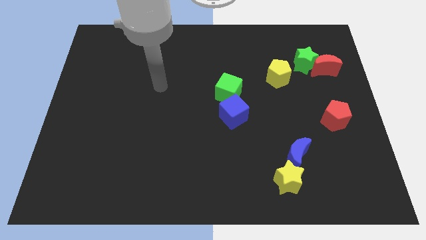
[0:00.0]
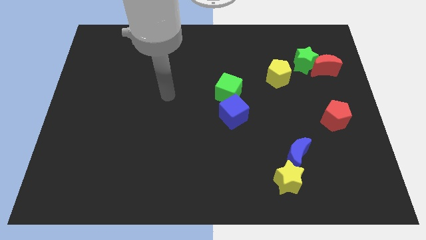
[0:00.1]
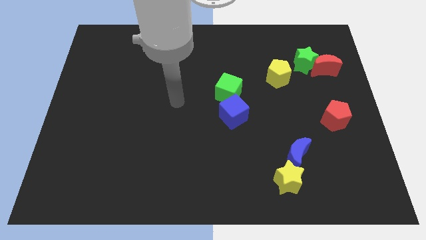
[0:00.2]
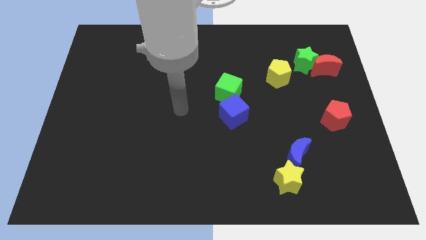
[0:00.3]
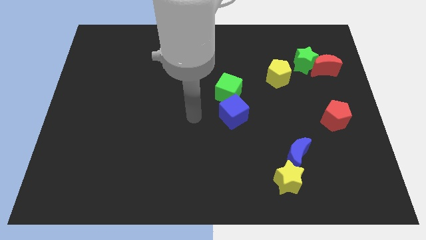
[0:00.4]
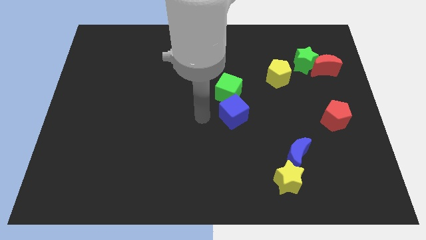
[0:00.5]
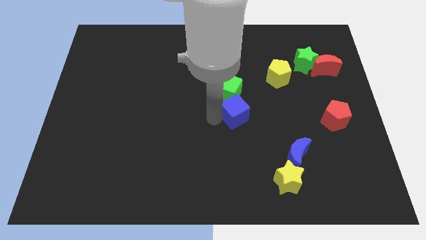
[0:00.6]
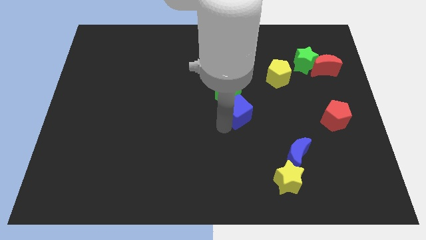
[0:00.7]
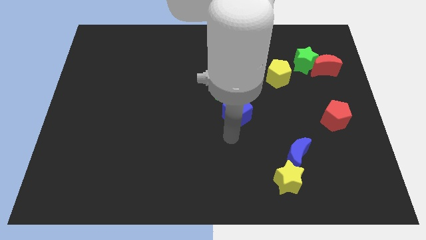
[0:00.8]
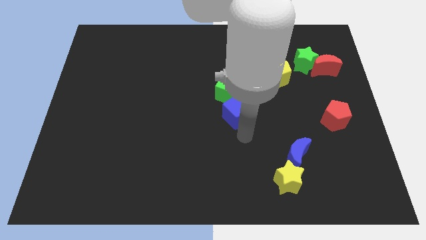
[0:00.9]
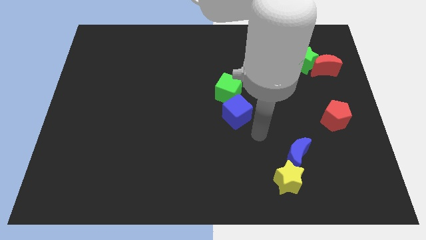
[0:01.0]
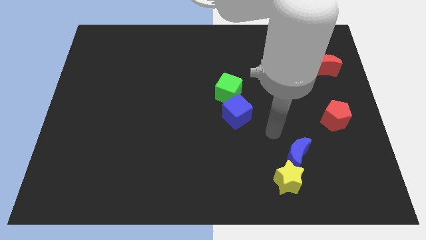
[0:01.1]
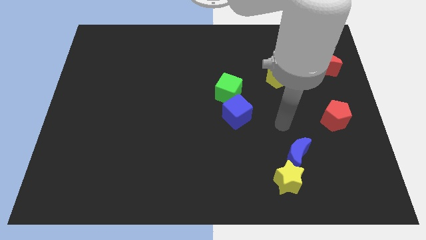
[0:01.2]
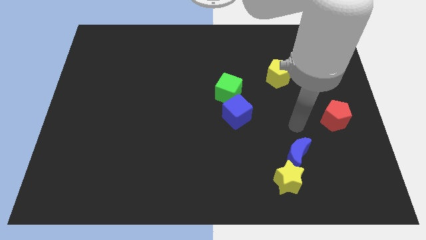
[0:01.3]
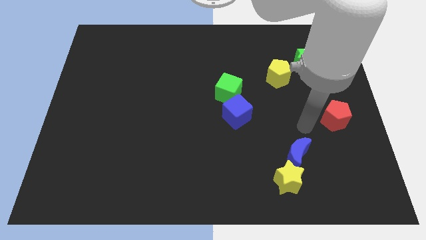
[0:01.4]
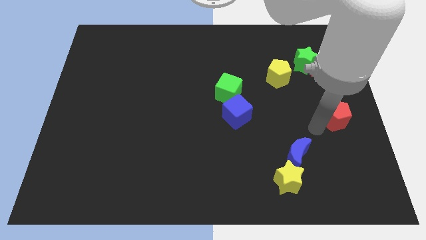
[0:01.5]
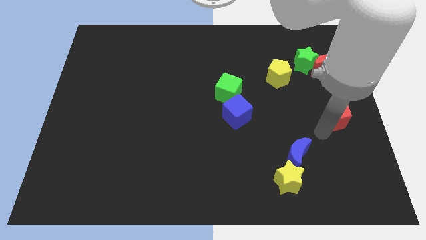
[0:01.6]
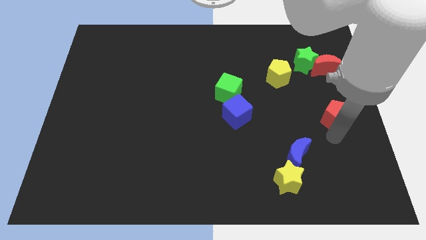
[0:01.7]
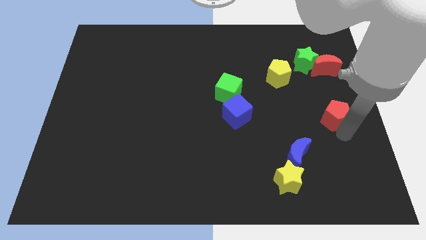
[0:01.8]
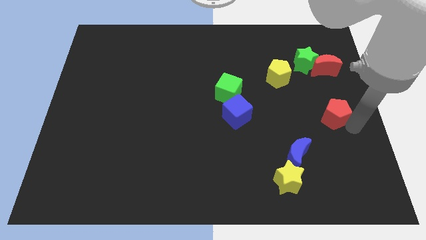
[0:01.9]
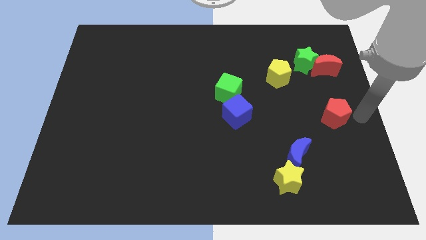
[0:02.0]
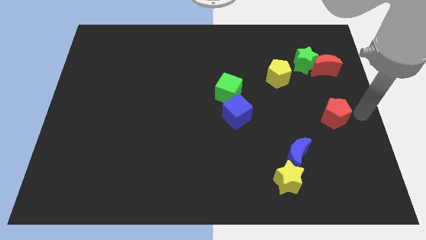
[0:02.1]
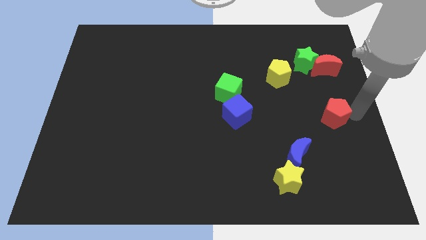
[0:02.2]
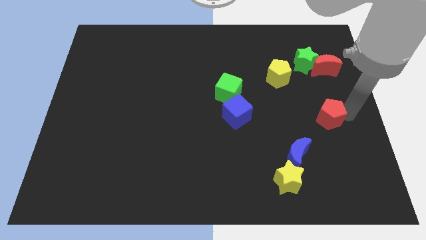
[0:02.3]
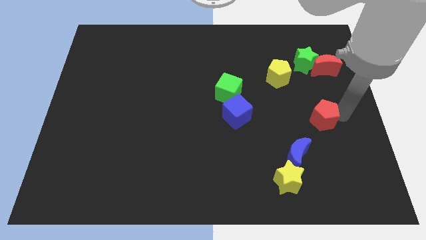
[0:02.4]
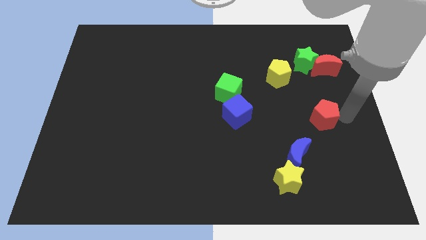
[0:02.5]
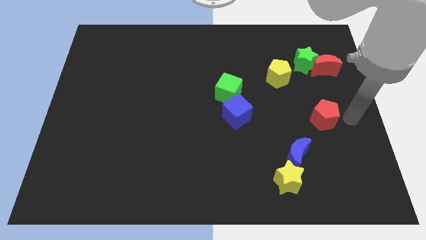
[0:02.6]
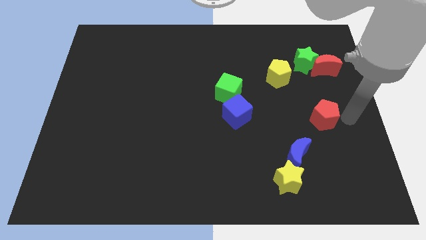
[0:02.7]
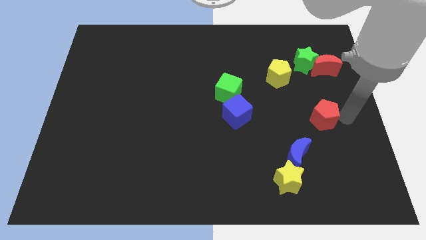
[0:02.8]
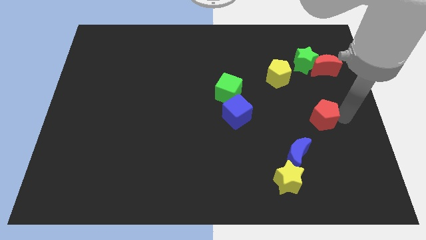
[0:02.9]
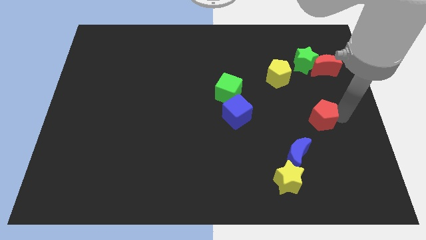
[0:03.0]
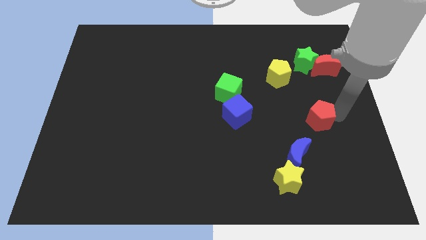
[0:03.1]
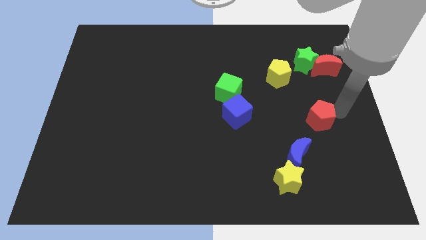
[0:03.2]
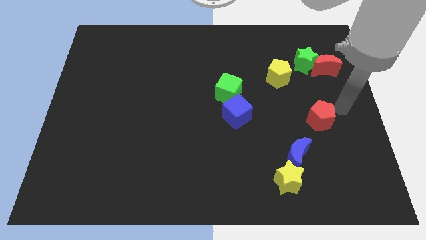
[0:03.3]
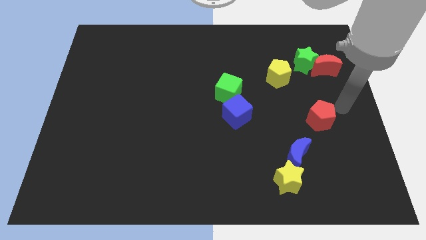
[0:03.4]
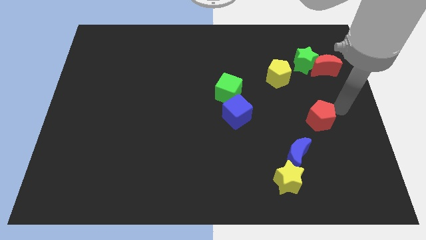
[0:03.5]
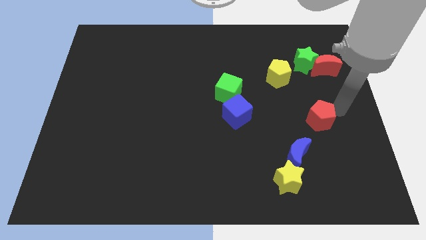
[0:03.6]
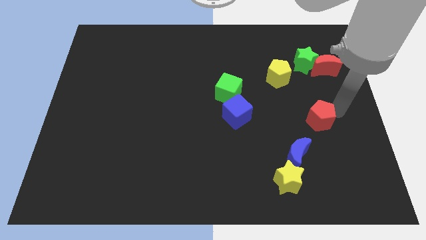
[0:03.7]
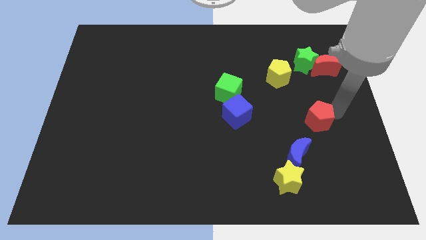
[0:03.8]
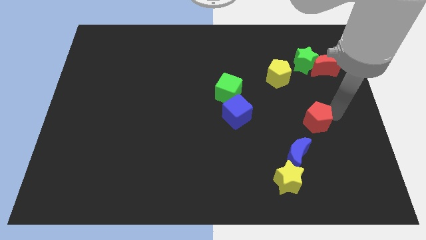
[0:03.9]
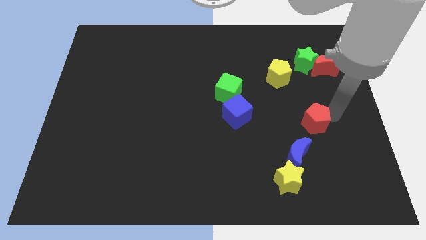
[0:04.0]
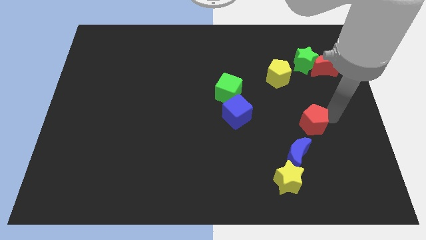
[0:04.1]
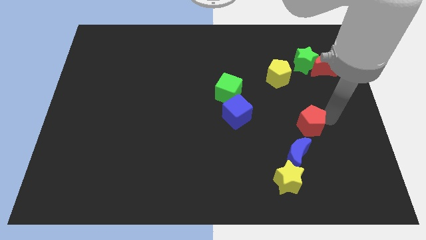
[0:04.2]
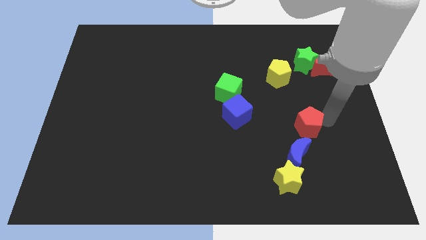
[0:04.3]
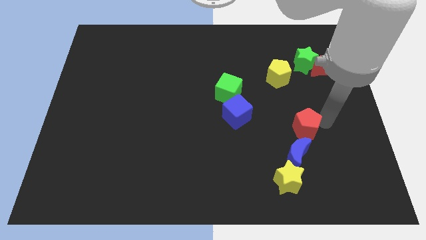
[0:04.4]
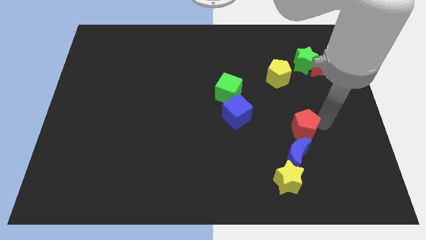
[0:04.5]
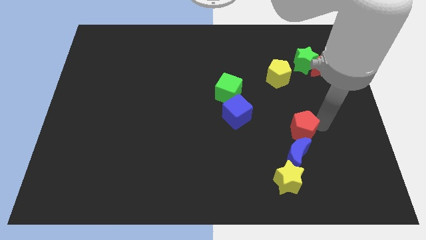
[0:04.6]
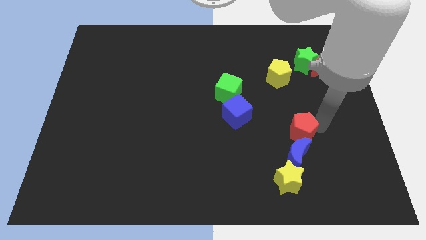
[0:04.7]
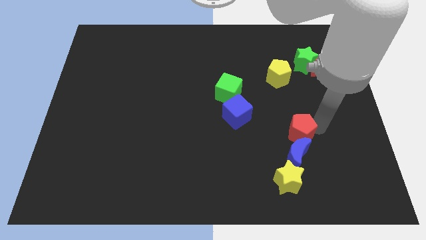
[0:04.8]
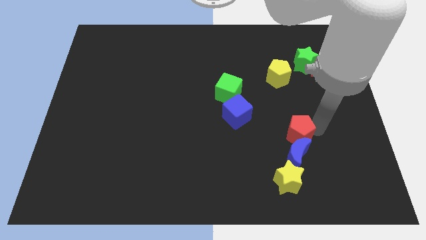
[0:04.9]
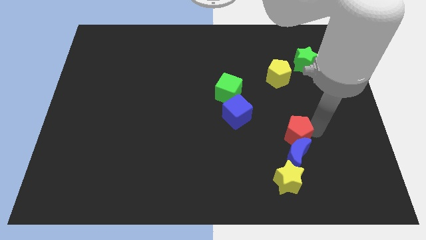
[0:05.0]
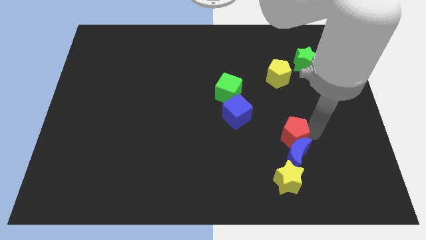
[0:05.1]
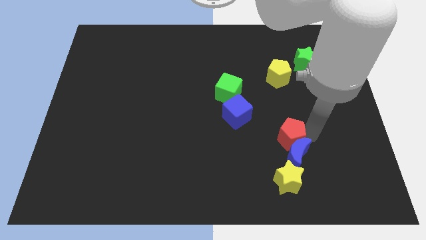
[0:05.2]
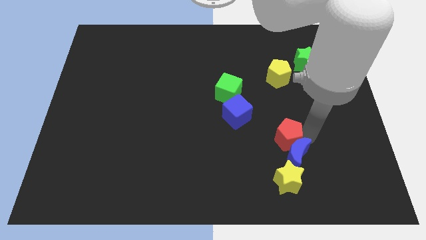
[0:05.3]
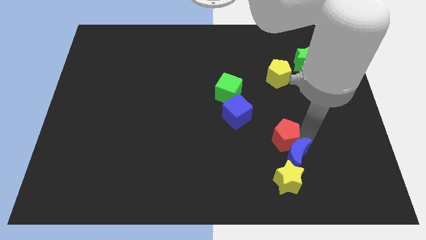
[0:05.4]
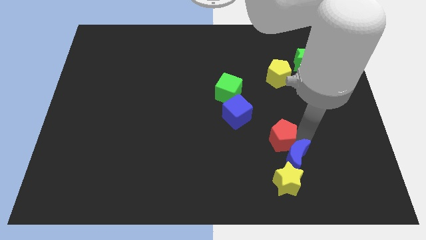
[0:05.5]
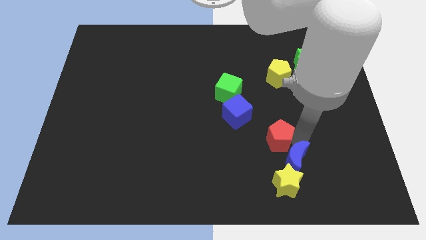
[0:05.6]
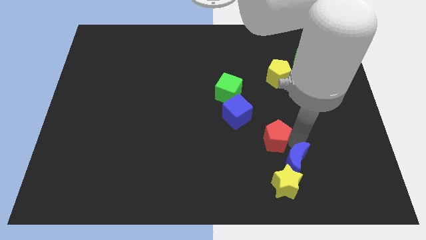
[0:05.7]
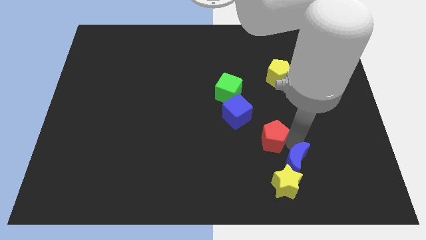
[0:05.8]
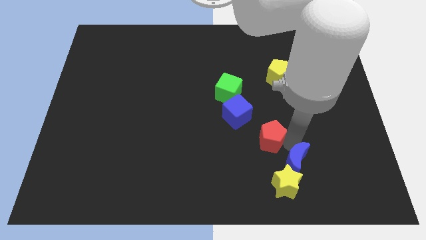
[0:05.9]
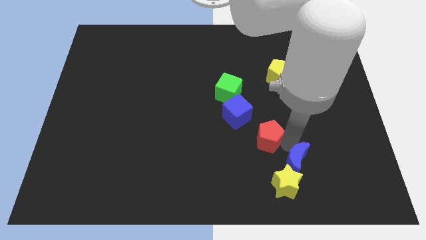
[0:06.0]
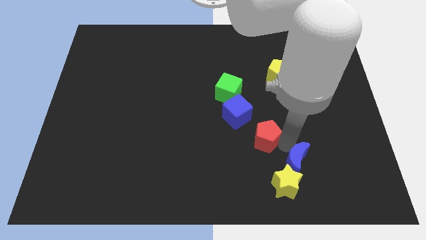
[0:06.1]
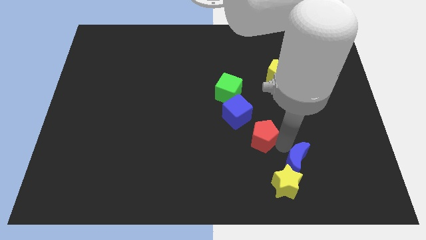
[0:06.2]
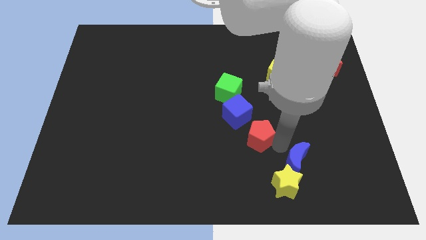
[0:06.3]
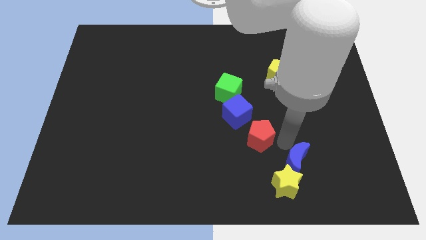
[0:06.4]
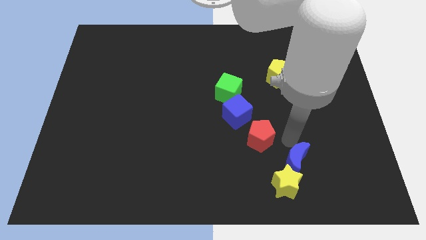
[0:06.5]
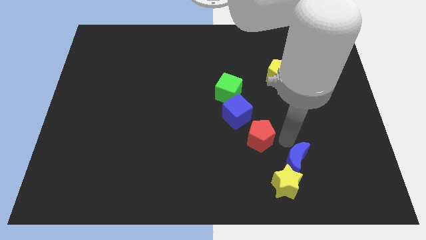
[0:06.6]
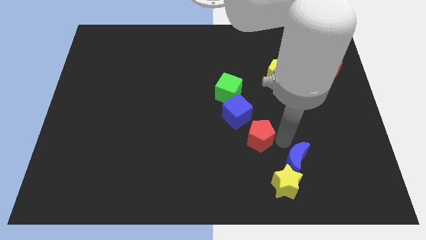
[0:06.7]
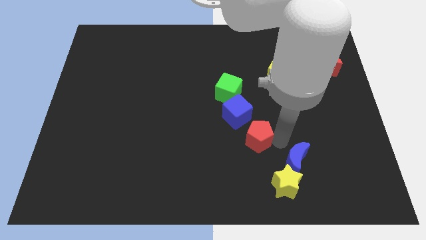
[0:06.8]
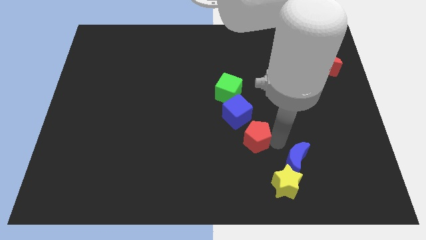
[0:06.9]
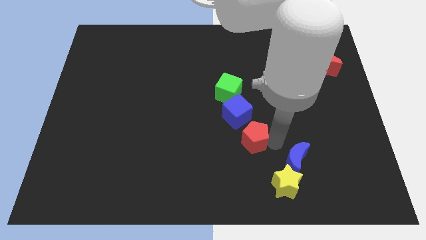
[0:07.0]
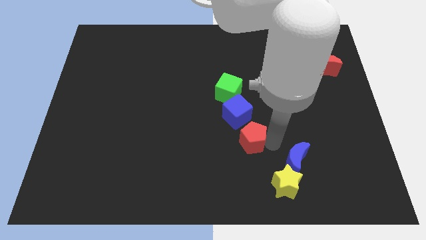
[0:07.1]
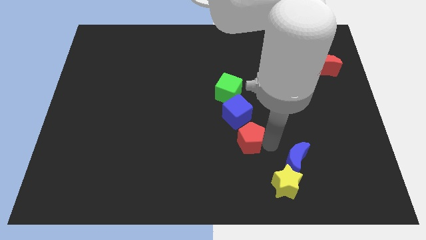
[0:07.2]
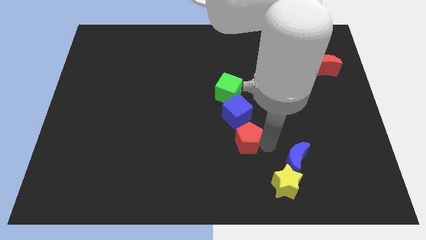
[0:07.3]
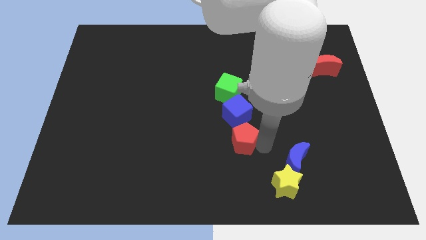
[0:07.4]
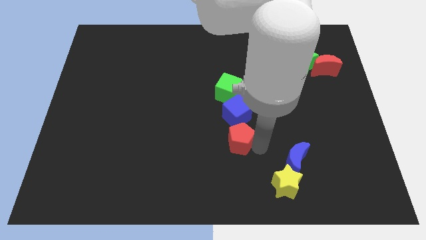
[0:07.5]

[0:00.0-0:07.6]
push the red pentagon to the left

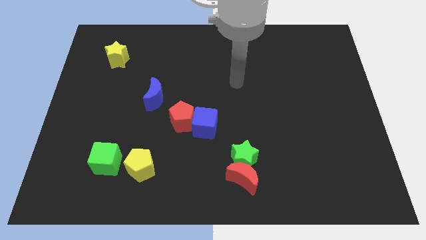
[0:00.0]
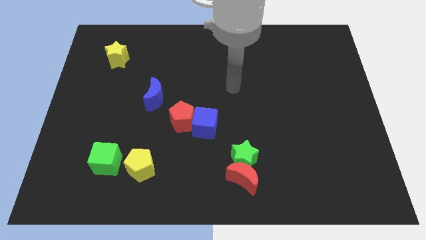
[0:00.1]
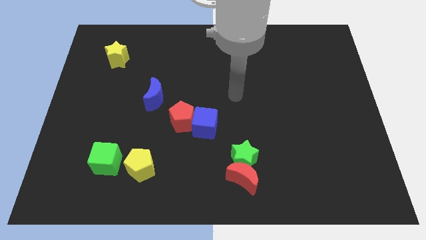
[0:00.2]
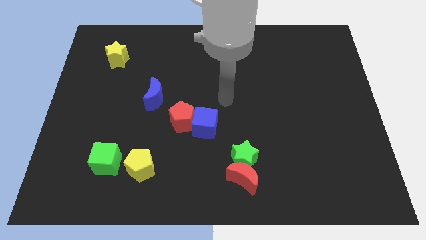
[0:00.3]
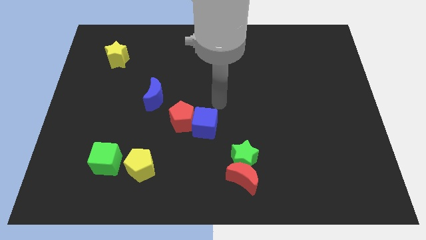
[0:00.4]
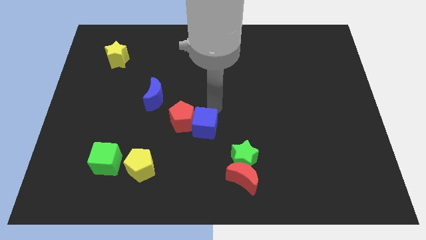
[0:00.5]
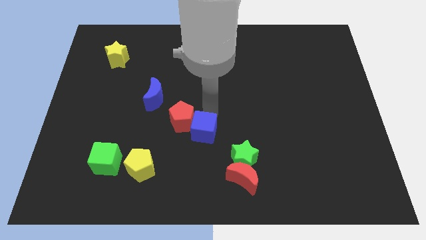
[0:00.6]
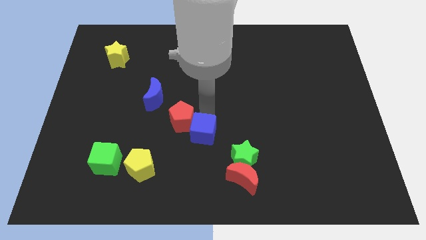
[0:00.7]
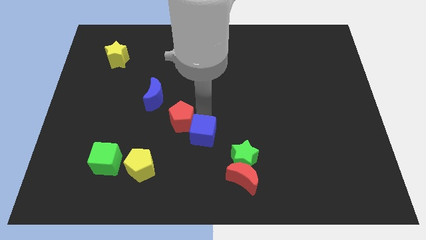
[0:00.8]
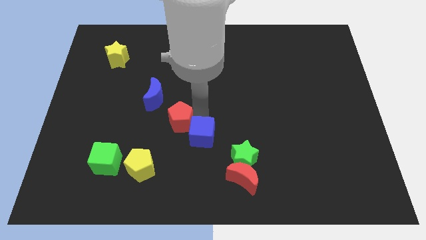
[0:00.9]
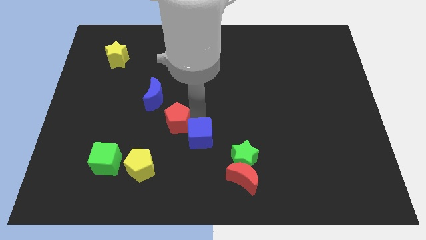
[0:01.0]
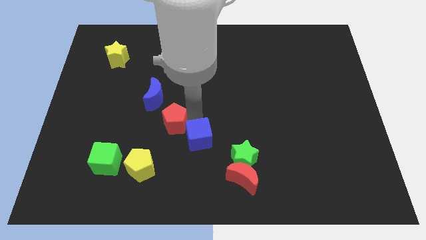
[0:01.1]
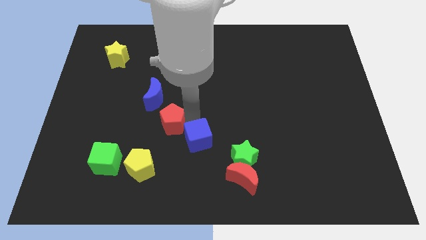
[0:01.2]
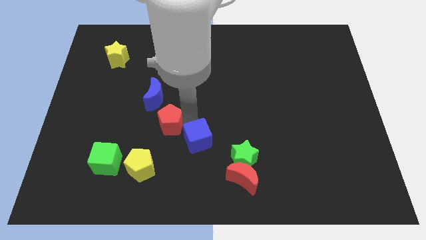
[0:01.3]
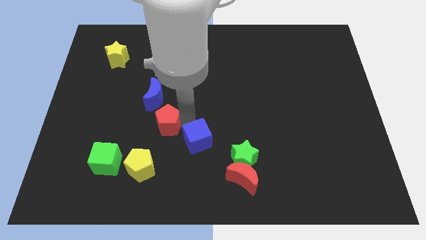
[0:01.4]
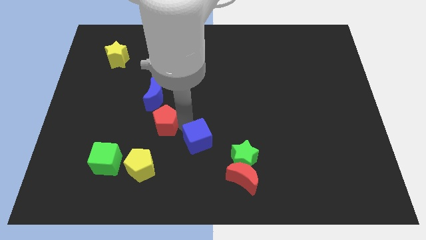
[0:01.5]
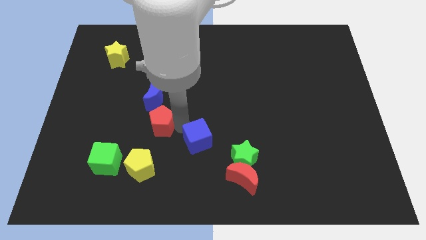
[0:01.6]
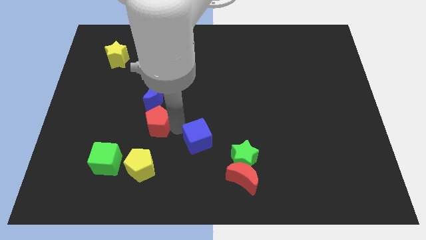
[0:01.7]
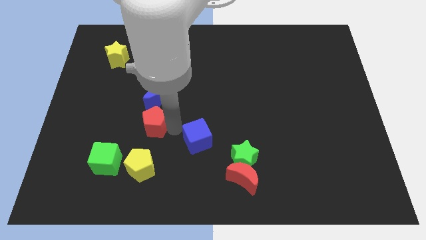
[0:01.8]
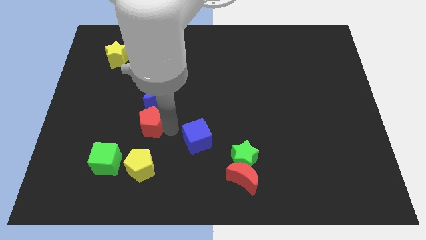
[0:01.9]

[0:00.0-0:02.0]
slightly slide the red pentagon left
